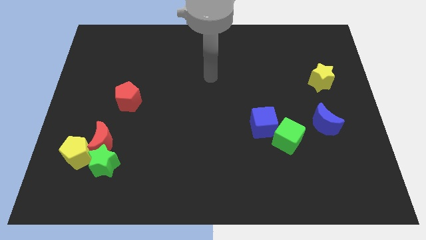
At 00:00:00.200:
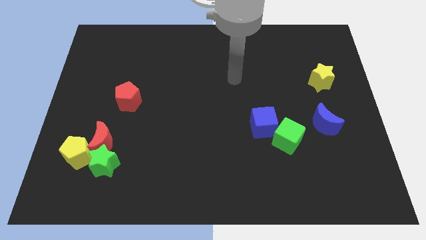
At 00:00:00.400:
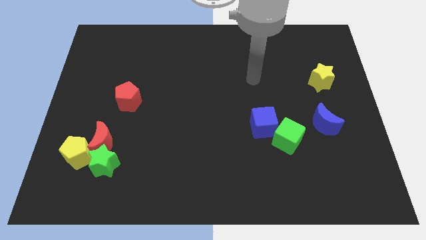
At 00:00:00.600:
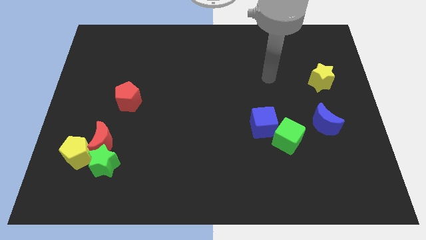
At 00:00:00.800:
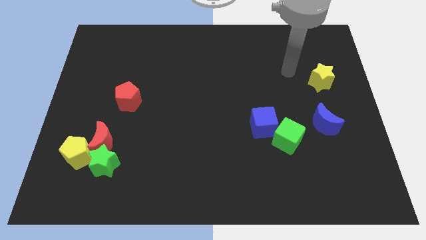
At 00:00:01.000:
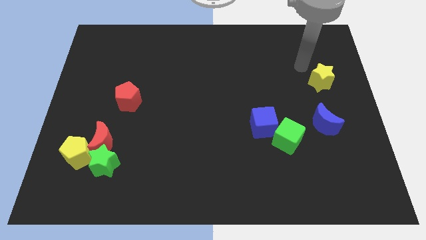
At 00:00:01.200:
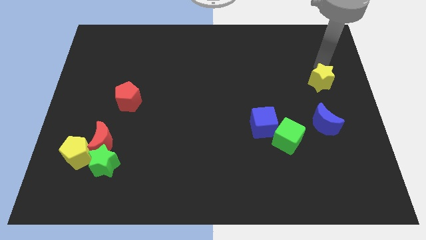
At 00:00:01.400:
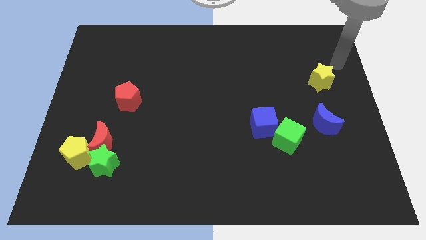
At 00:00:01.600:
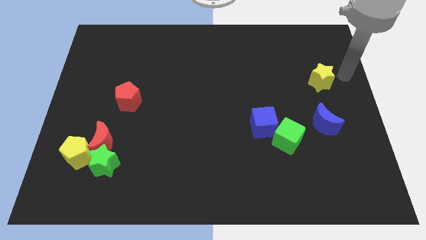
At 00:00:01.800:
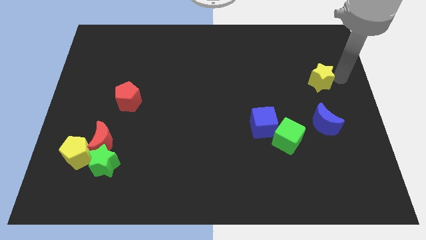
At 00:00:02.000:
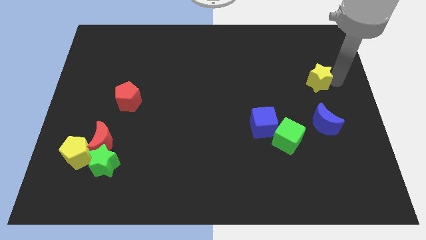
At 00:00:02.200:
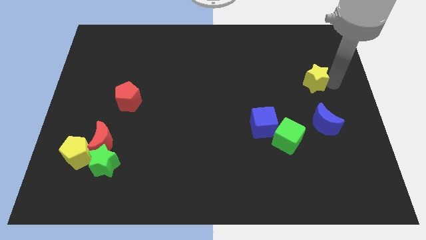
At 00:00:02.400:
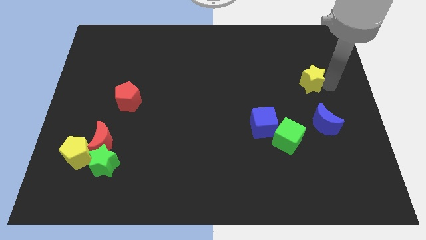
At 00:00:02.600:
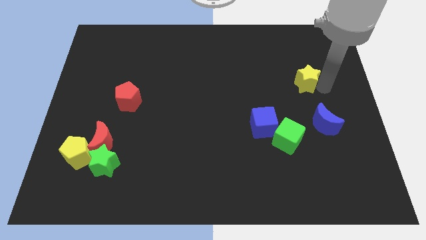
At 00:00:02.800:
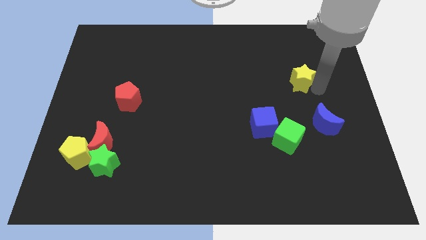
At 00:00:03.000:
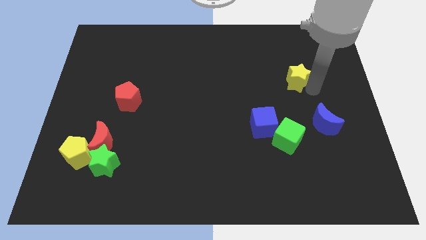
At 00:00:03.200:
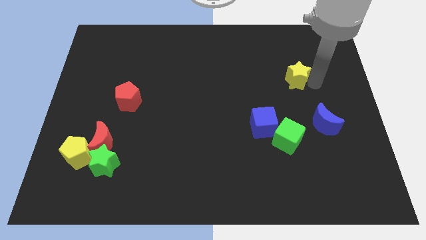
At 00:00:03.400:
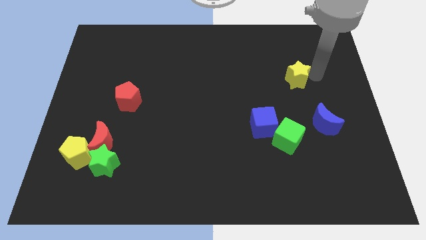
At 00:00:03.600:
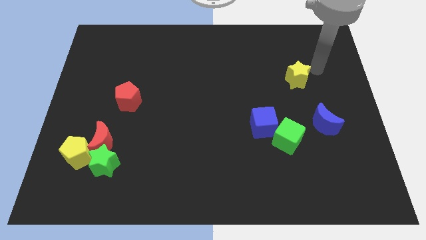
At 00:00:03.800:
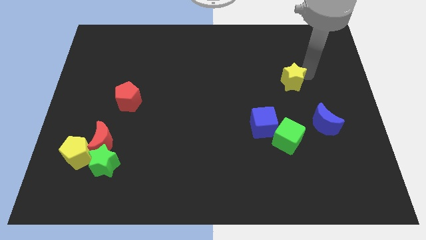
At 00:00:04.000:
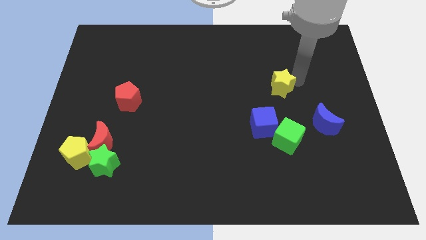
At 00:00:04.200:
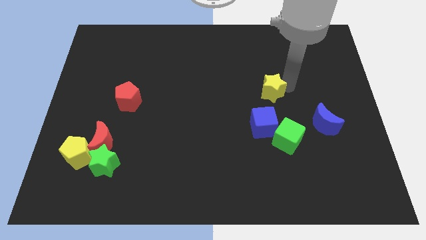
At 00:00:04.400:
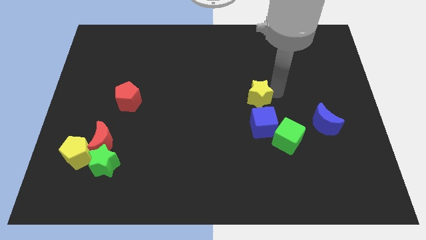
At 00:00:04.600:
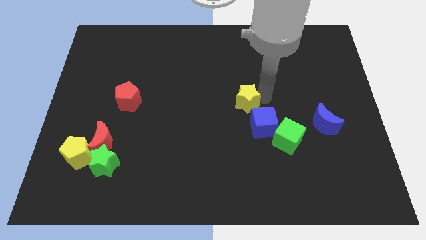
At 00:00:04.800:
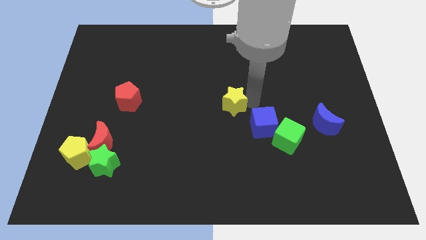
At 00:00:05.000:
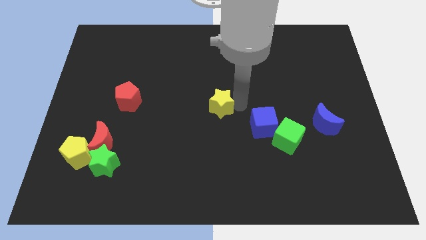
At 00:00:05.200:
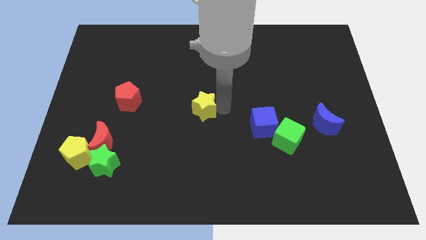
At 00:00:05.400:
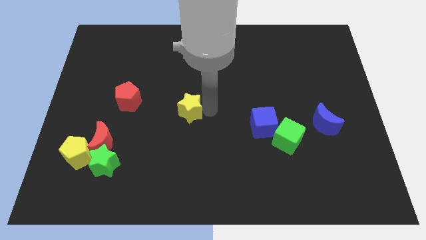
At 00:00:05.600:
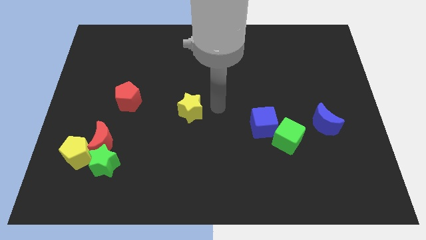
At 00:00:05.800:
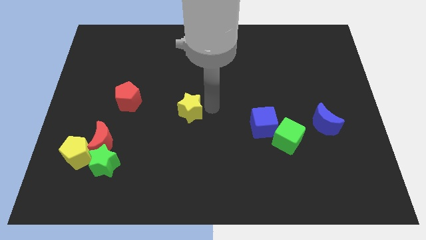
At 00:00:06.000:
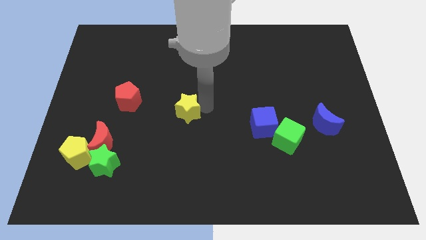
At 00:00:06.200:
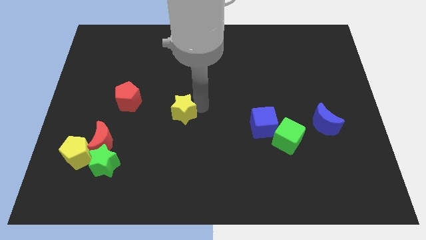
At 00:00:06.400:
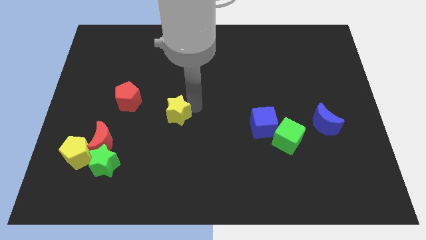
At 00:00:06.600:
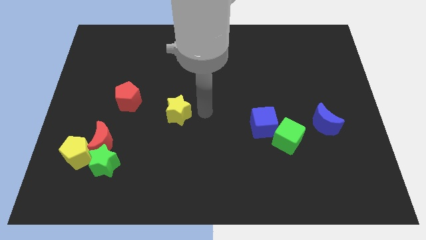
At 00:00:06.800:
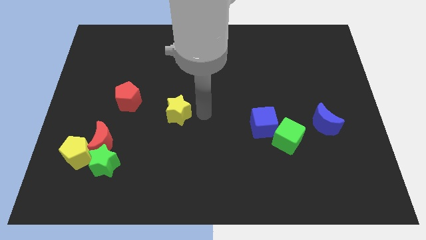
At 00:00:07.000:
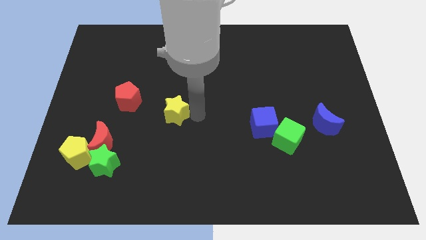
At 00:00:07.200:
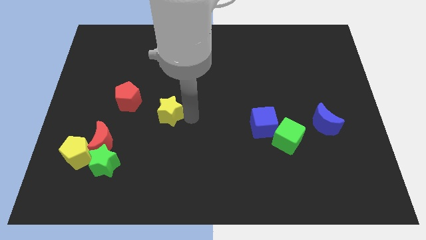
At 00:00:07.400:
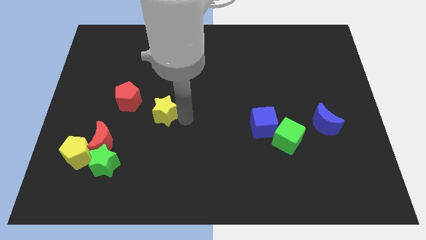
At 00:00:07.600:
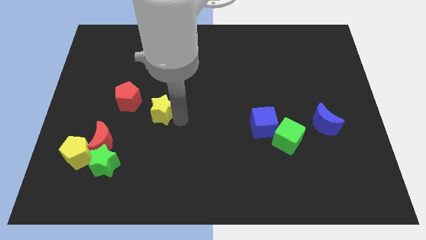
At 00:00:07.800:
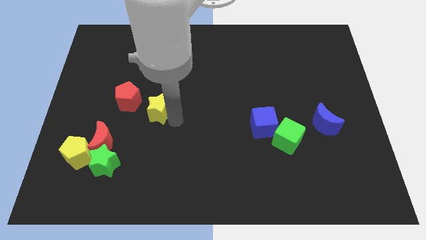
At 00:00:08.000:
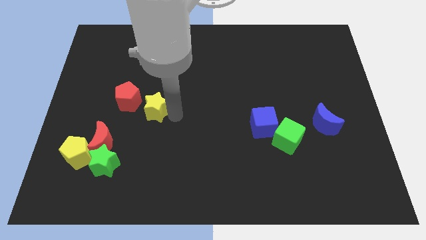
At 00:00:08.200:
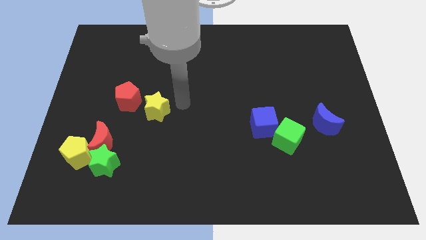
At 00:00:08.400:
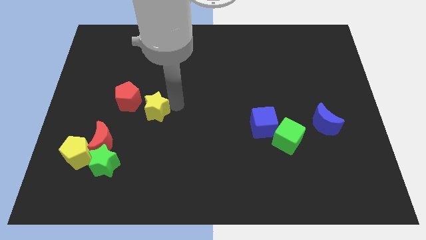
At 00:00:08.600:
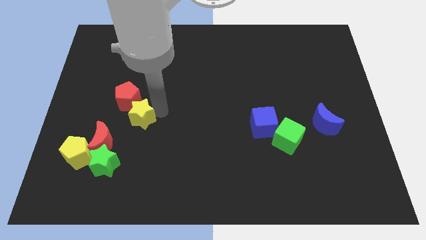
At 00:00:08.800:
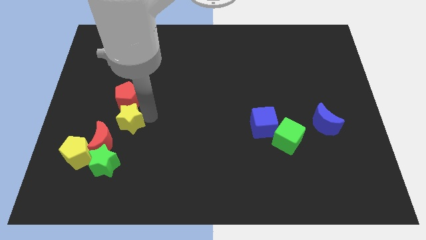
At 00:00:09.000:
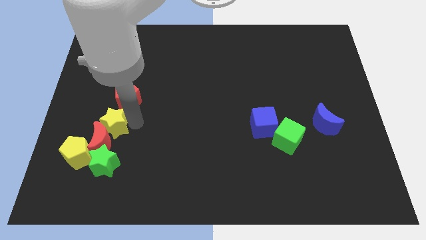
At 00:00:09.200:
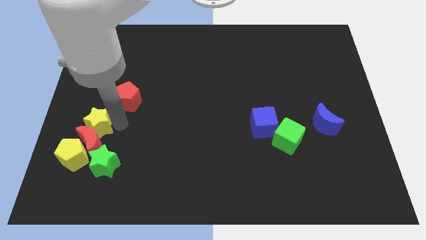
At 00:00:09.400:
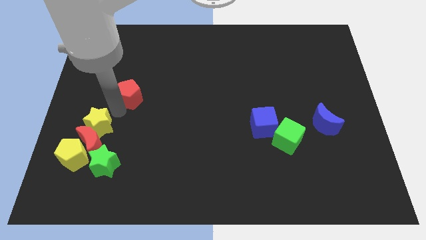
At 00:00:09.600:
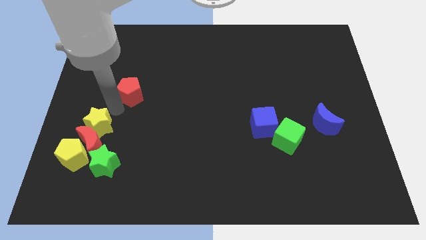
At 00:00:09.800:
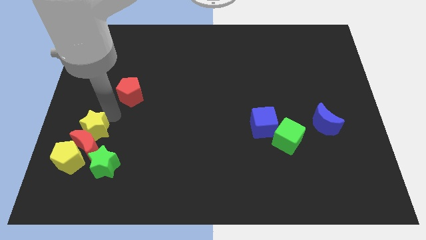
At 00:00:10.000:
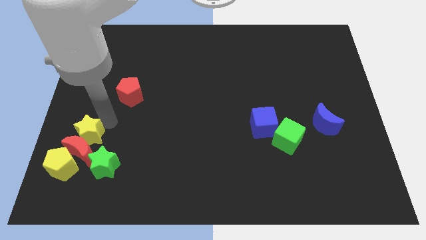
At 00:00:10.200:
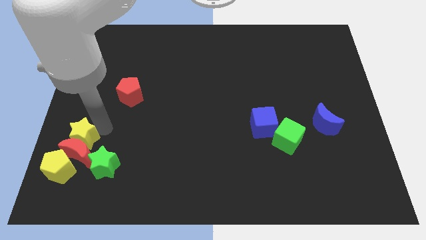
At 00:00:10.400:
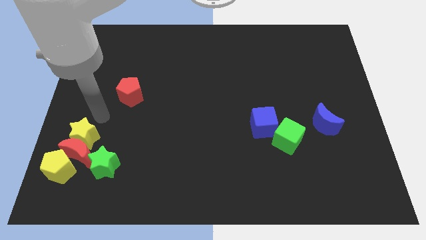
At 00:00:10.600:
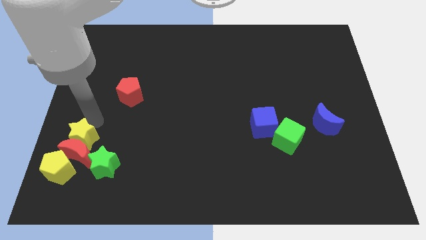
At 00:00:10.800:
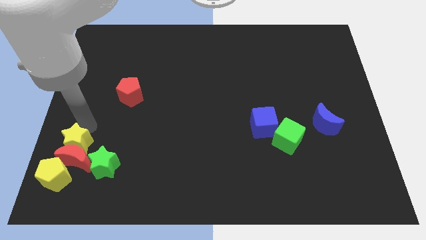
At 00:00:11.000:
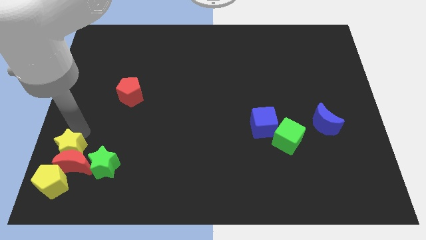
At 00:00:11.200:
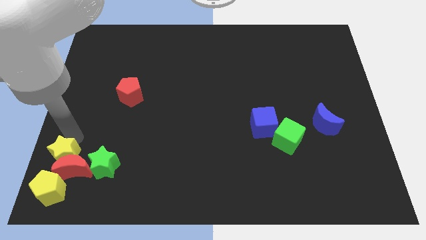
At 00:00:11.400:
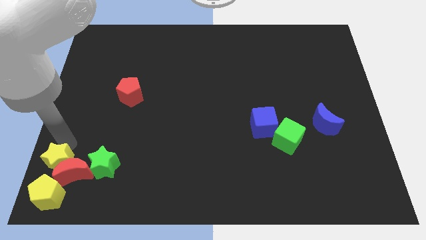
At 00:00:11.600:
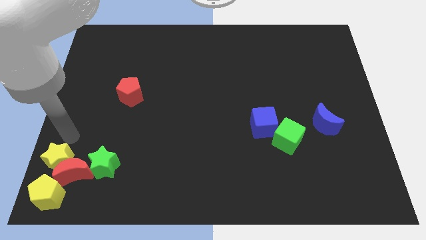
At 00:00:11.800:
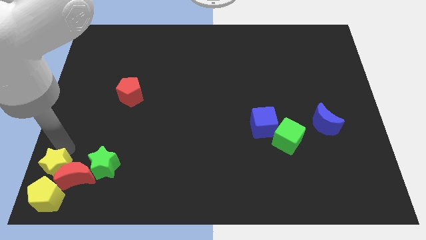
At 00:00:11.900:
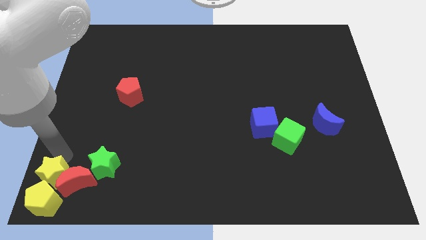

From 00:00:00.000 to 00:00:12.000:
push the yellow star next to the yellow pentagon
